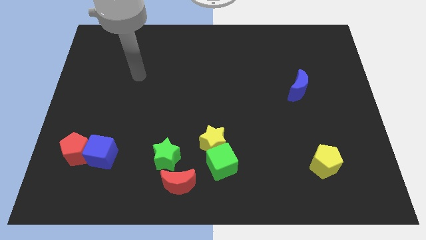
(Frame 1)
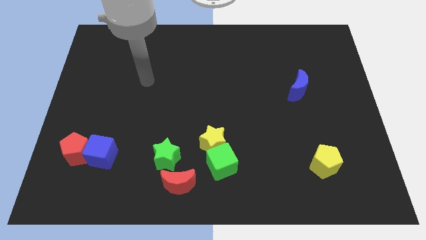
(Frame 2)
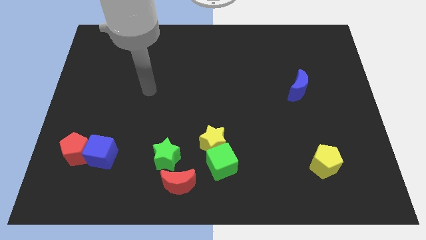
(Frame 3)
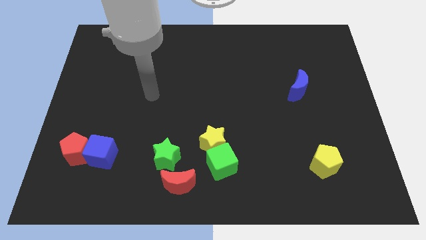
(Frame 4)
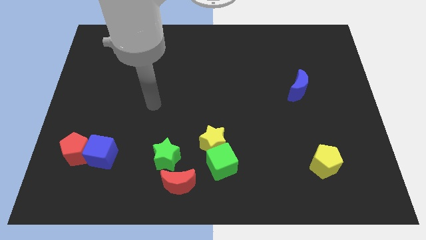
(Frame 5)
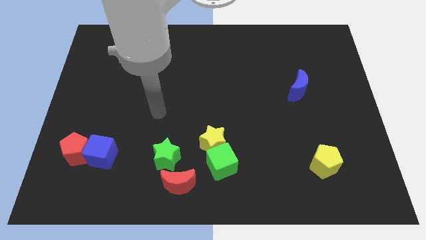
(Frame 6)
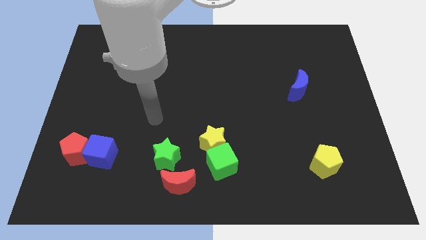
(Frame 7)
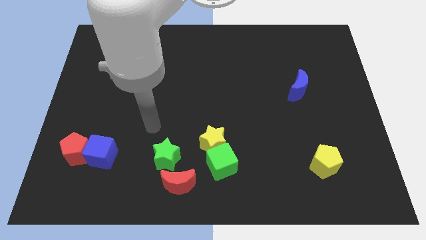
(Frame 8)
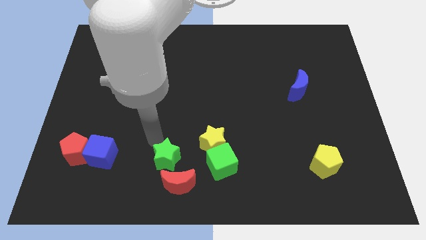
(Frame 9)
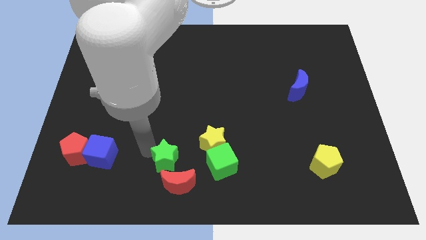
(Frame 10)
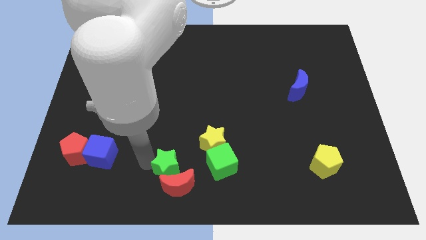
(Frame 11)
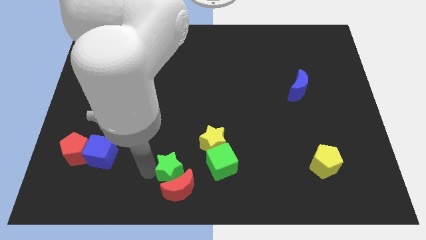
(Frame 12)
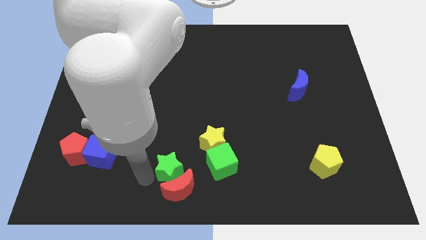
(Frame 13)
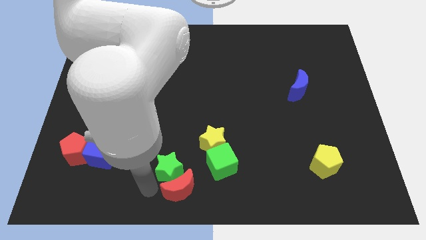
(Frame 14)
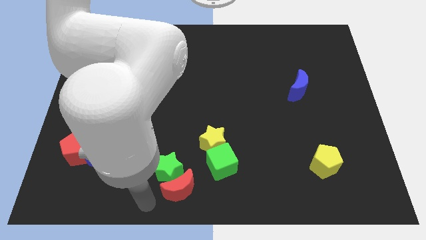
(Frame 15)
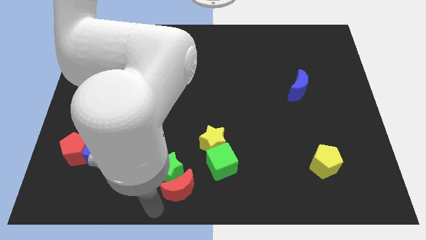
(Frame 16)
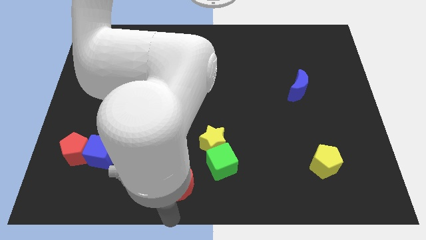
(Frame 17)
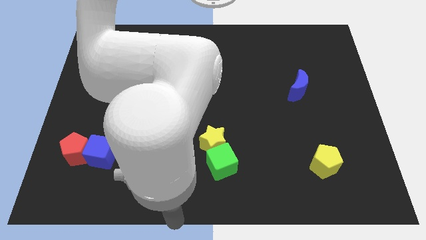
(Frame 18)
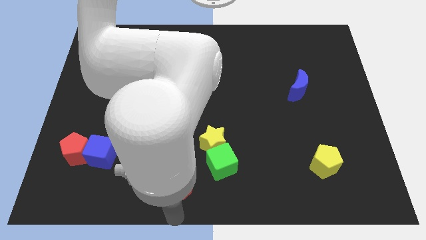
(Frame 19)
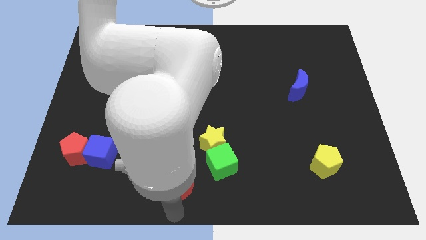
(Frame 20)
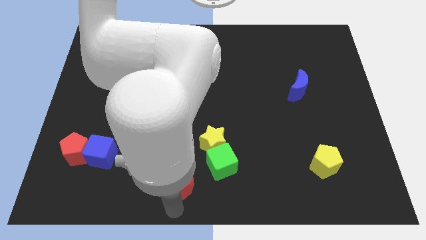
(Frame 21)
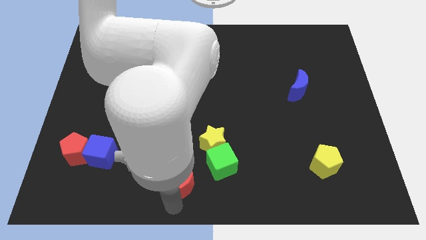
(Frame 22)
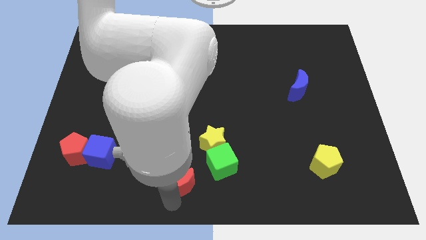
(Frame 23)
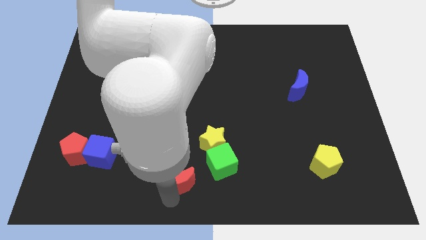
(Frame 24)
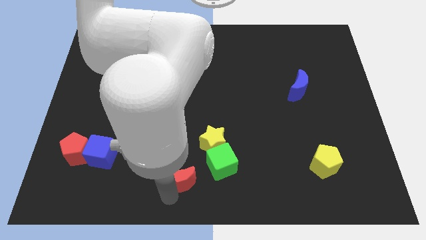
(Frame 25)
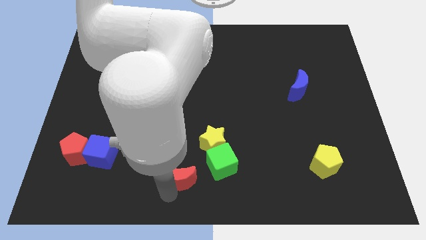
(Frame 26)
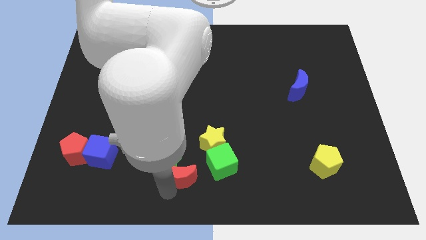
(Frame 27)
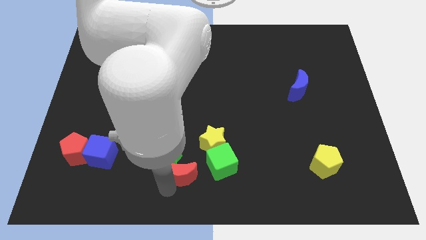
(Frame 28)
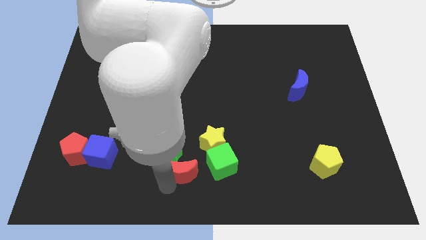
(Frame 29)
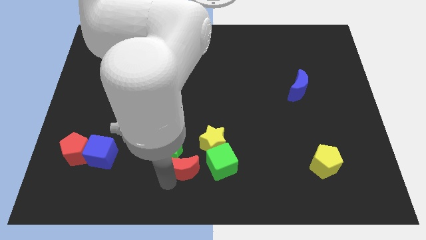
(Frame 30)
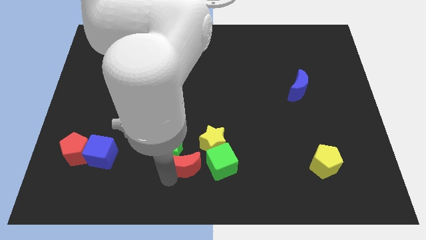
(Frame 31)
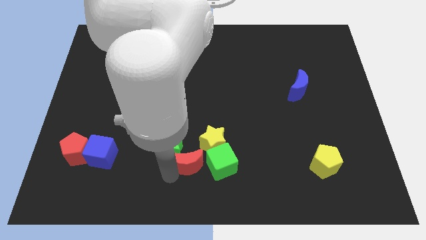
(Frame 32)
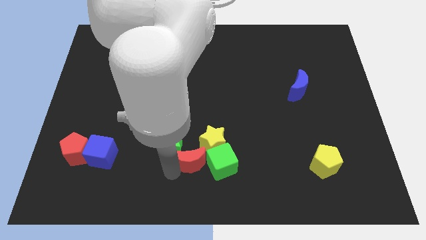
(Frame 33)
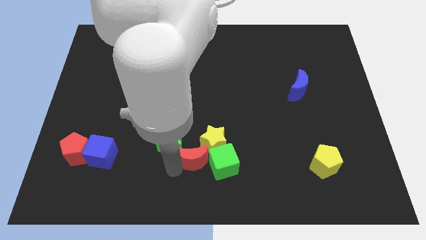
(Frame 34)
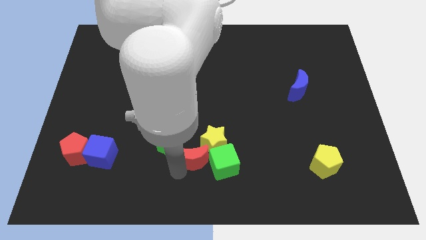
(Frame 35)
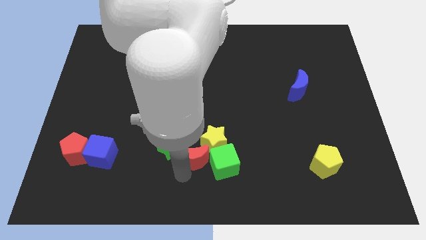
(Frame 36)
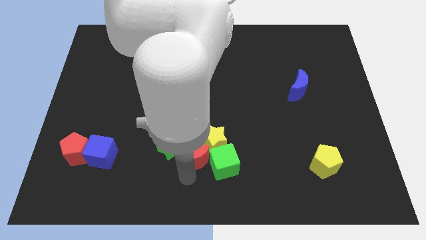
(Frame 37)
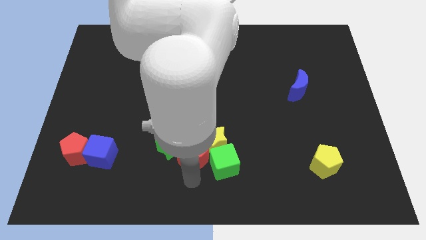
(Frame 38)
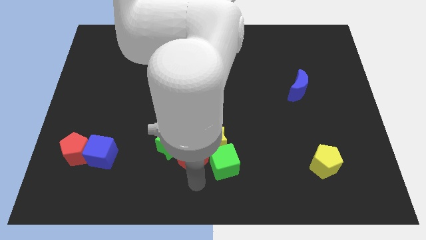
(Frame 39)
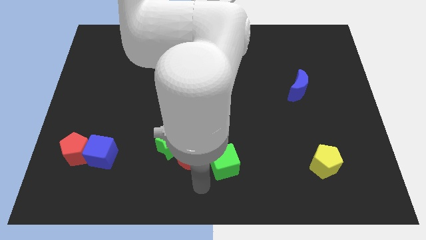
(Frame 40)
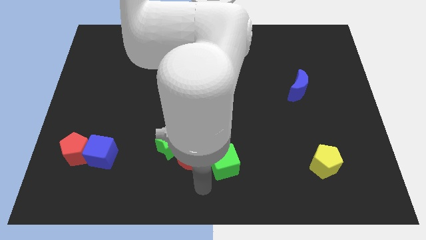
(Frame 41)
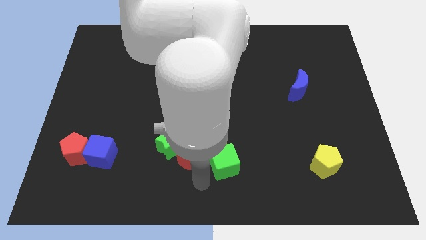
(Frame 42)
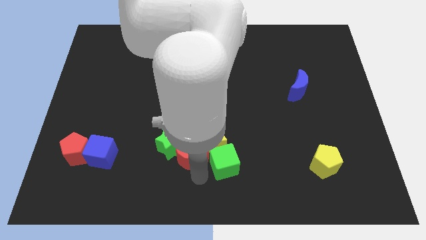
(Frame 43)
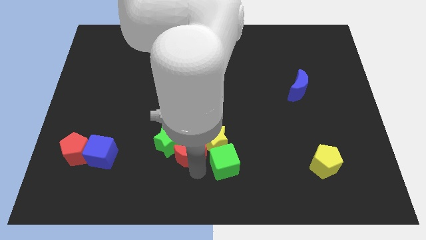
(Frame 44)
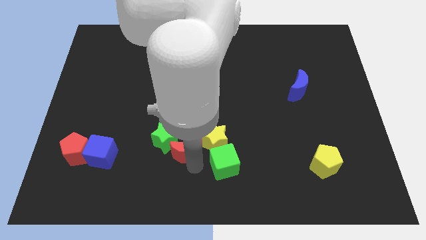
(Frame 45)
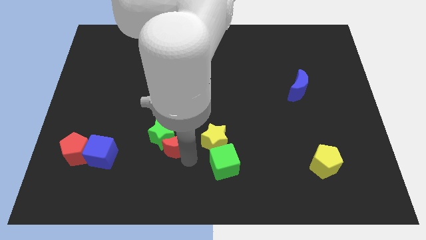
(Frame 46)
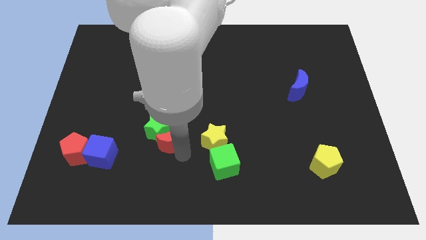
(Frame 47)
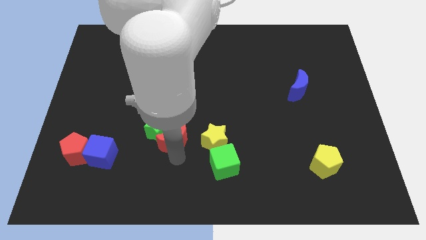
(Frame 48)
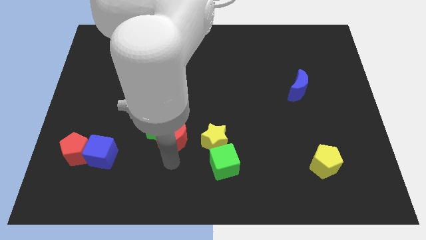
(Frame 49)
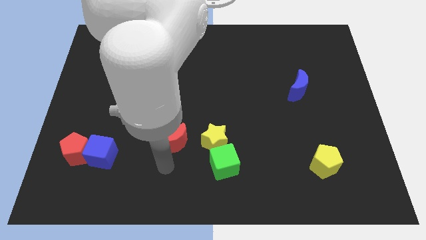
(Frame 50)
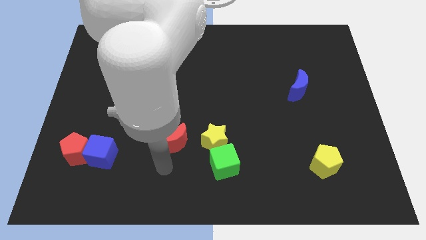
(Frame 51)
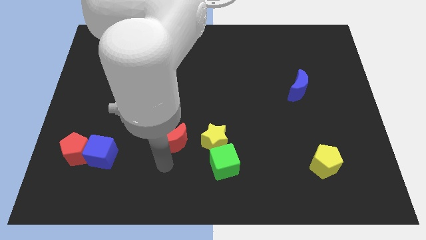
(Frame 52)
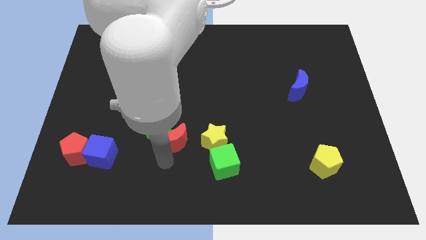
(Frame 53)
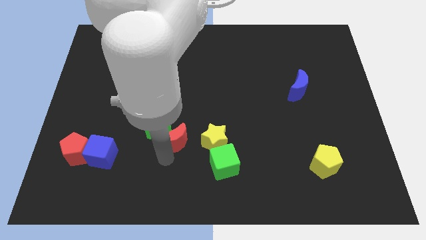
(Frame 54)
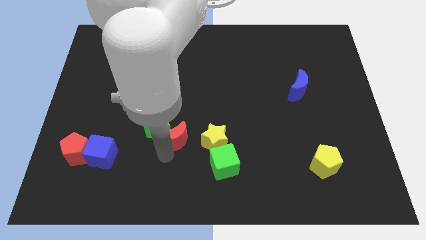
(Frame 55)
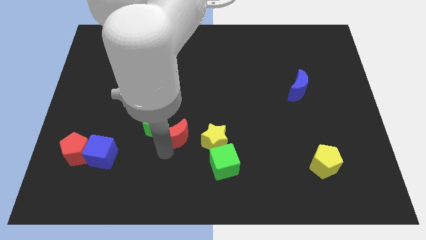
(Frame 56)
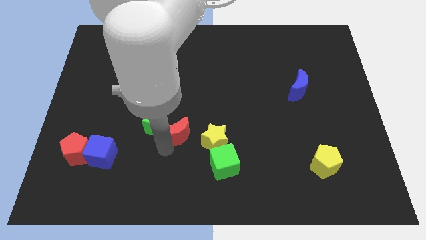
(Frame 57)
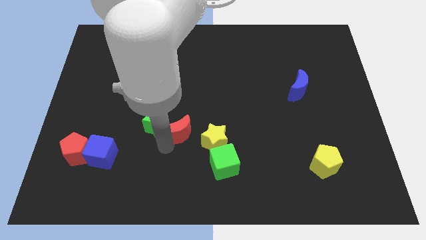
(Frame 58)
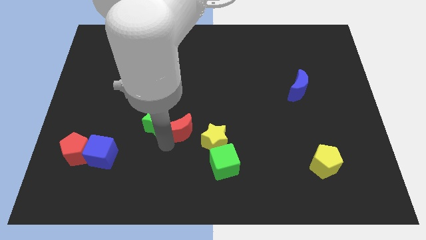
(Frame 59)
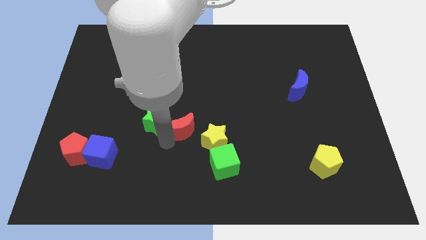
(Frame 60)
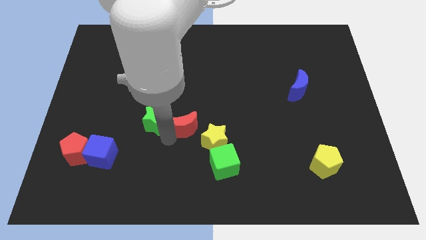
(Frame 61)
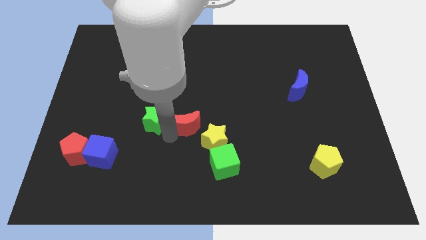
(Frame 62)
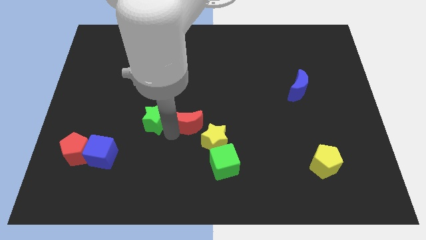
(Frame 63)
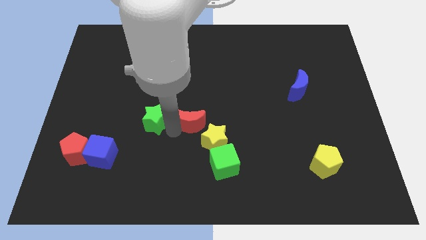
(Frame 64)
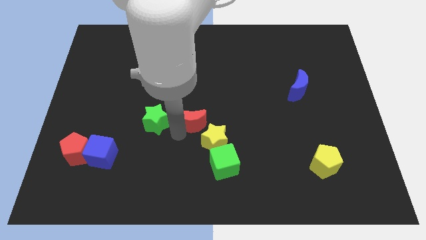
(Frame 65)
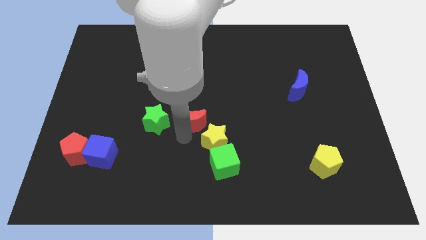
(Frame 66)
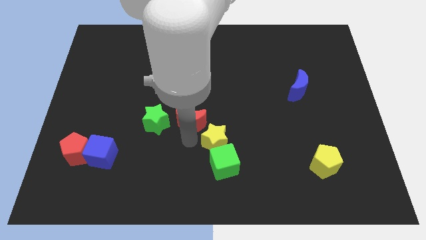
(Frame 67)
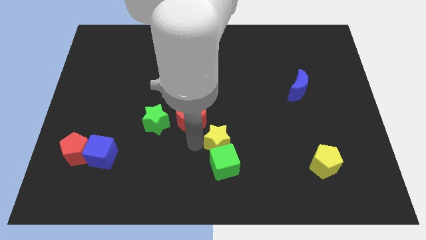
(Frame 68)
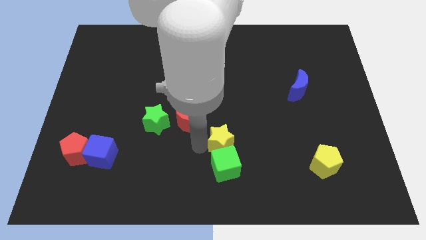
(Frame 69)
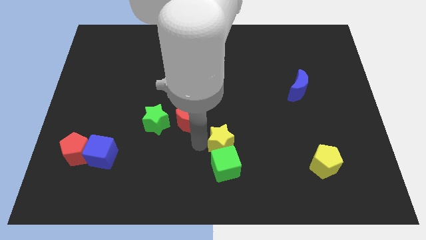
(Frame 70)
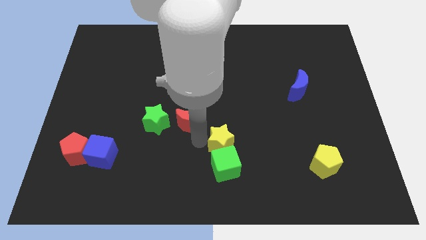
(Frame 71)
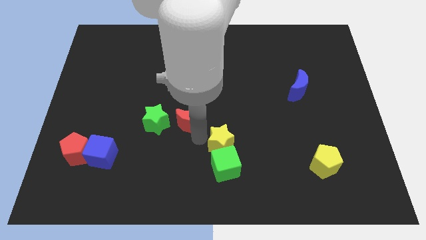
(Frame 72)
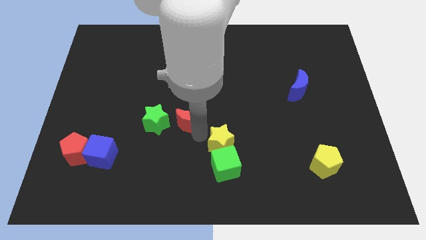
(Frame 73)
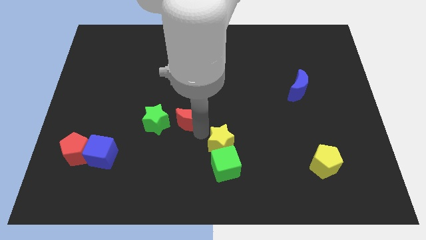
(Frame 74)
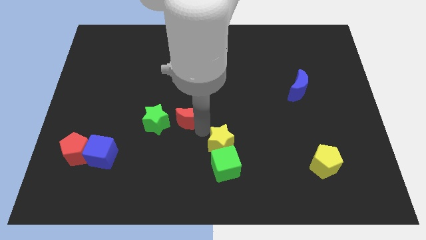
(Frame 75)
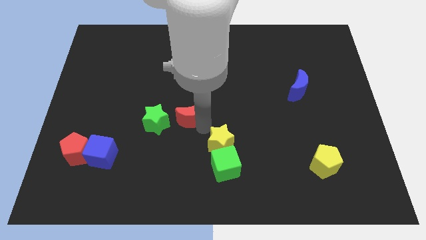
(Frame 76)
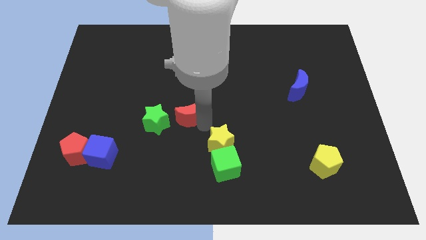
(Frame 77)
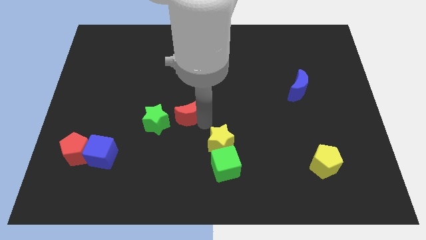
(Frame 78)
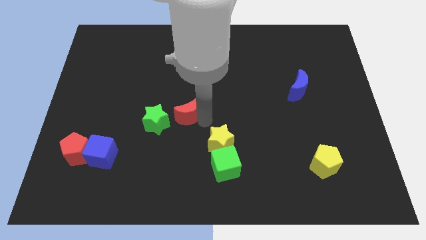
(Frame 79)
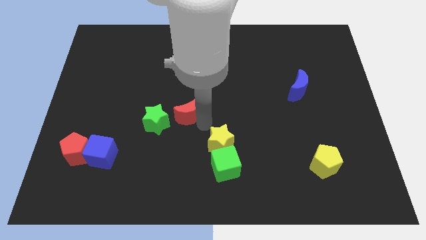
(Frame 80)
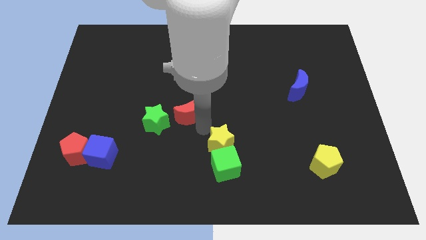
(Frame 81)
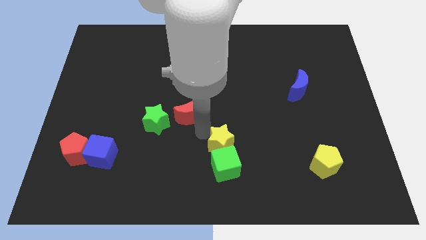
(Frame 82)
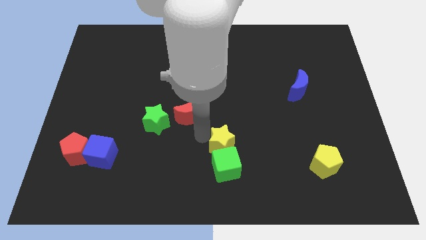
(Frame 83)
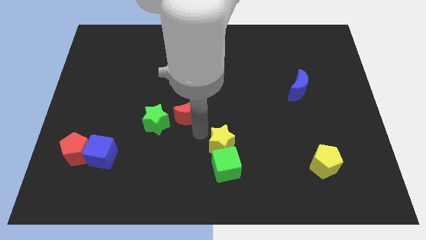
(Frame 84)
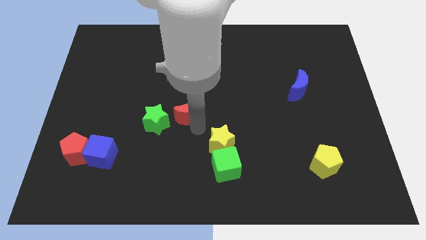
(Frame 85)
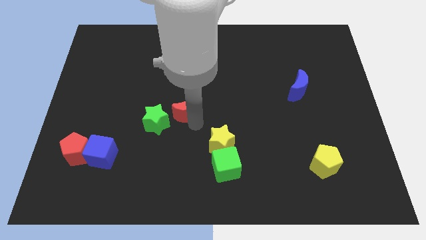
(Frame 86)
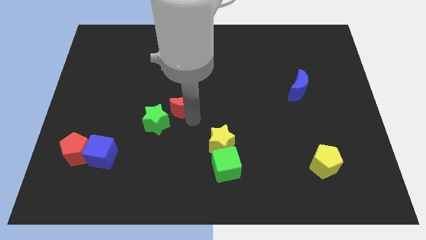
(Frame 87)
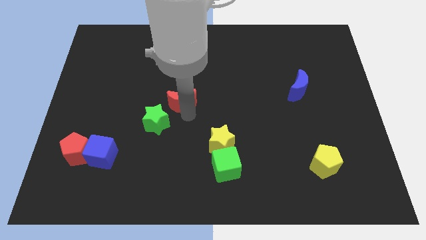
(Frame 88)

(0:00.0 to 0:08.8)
slide the red moon up
